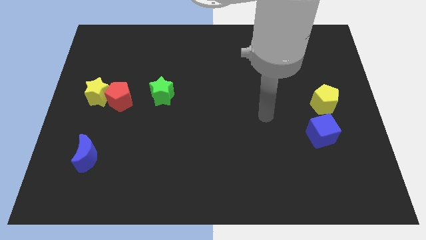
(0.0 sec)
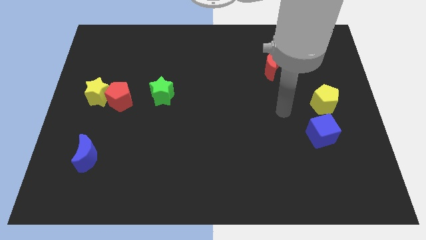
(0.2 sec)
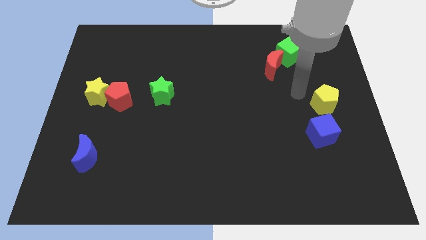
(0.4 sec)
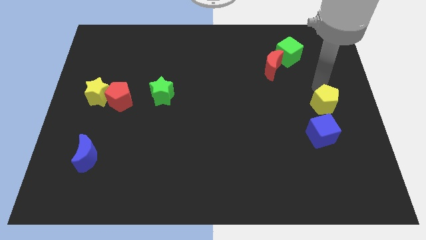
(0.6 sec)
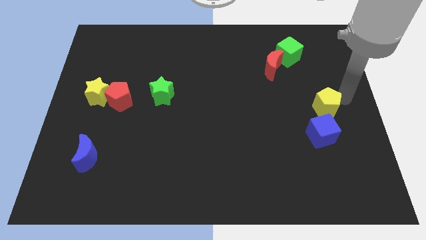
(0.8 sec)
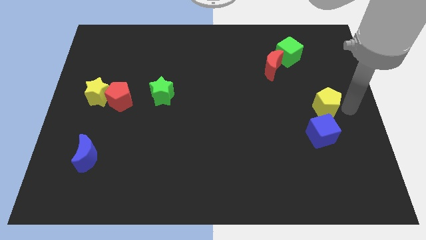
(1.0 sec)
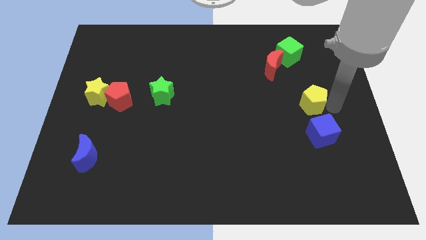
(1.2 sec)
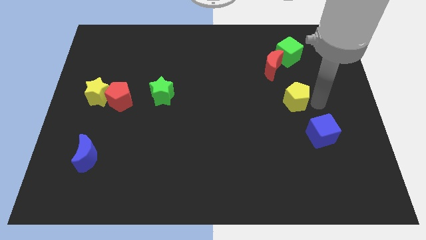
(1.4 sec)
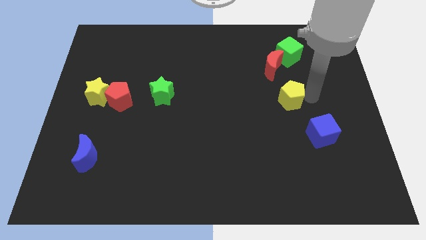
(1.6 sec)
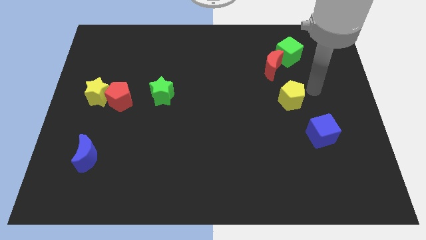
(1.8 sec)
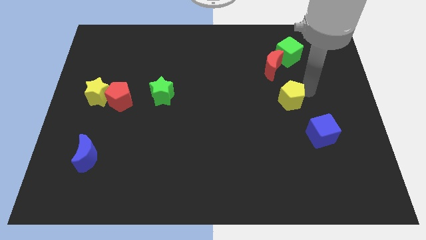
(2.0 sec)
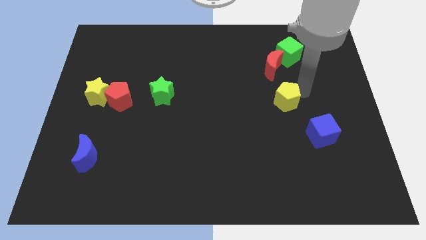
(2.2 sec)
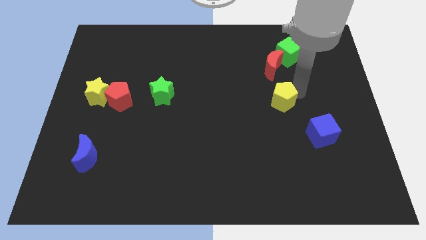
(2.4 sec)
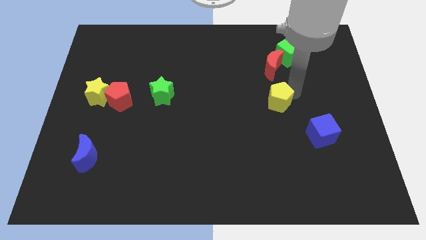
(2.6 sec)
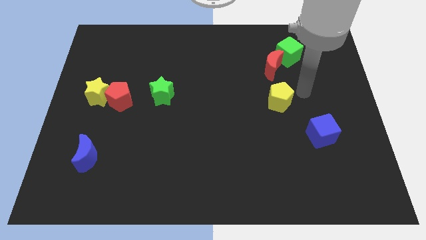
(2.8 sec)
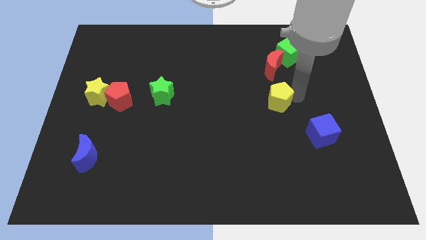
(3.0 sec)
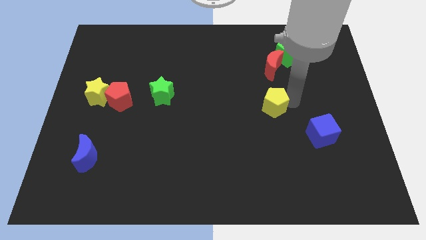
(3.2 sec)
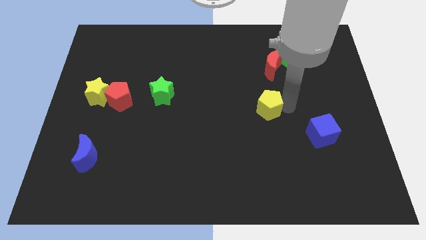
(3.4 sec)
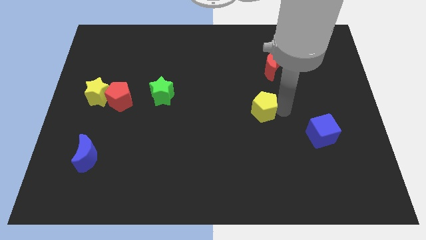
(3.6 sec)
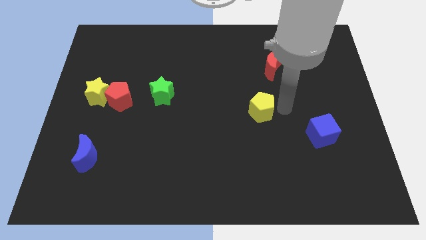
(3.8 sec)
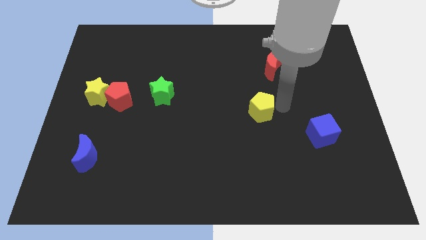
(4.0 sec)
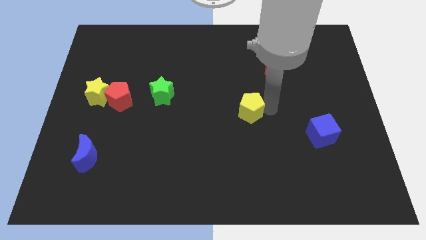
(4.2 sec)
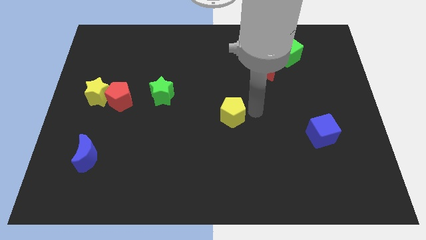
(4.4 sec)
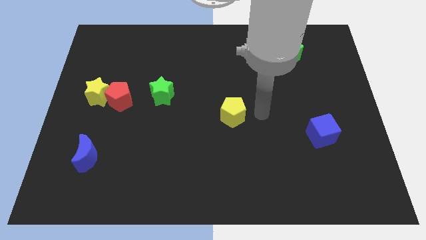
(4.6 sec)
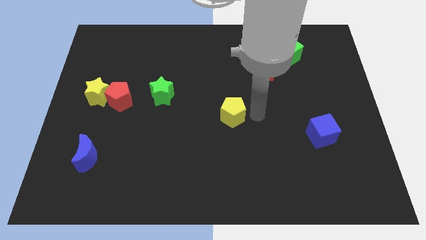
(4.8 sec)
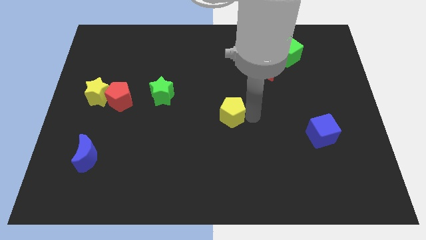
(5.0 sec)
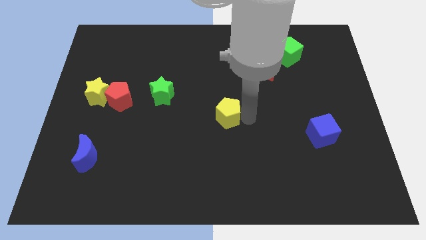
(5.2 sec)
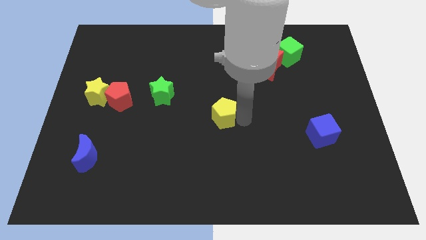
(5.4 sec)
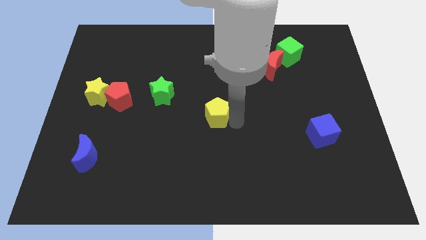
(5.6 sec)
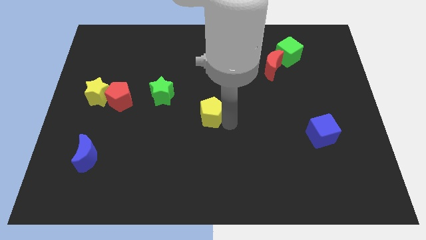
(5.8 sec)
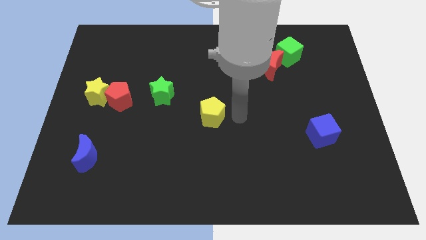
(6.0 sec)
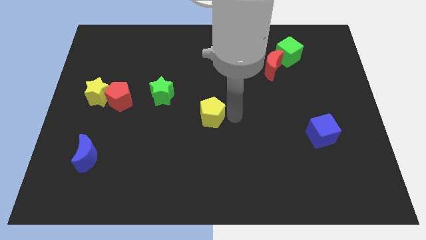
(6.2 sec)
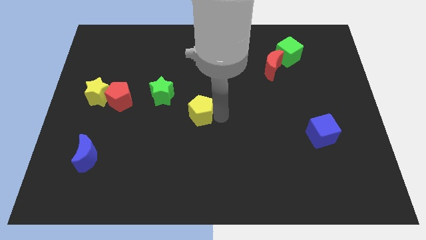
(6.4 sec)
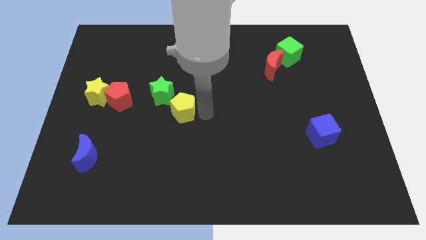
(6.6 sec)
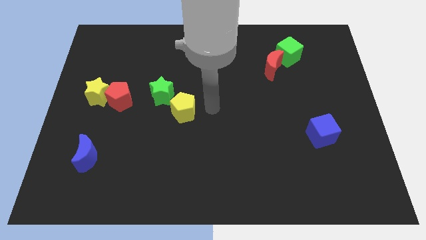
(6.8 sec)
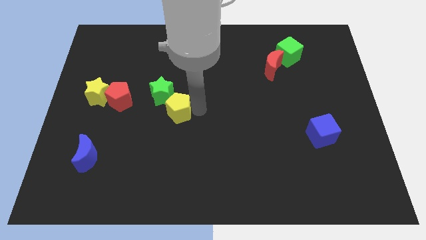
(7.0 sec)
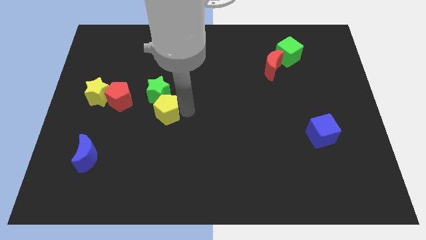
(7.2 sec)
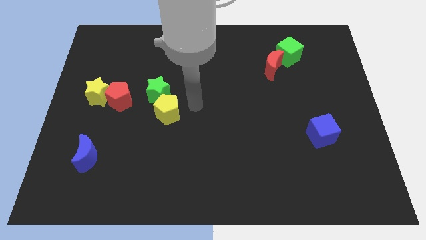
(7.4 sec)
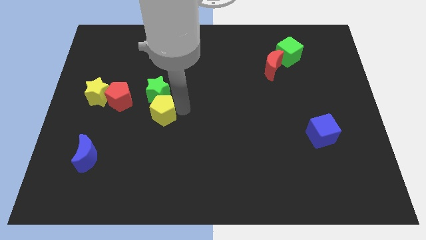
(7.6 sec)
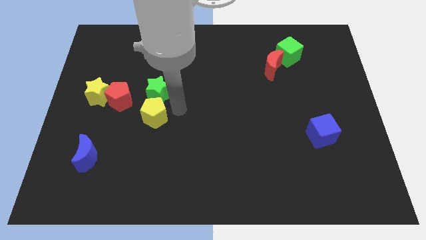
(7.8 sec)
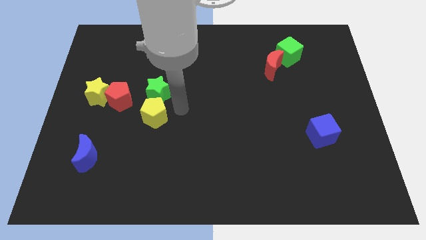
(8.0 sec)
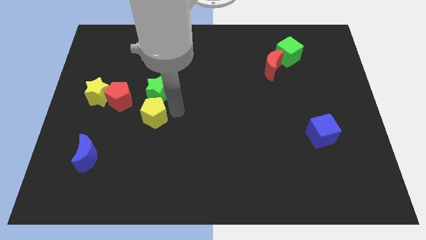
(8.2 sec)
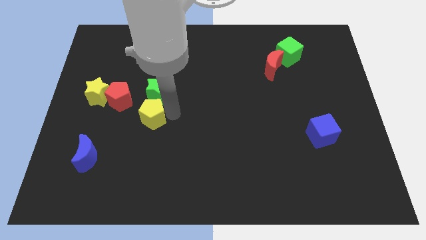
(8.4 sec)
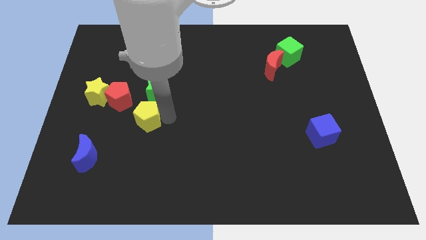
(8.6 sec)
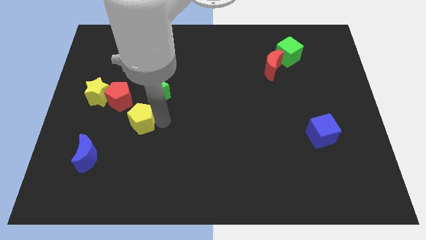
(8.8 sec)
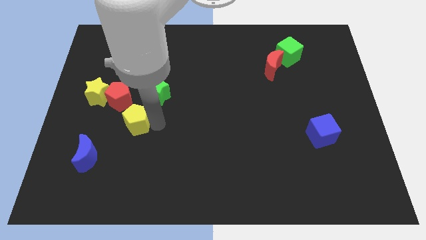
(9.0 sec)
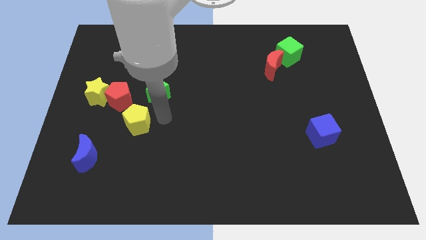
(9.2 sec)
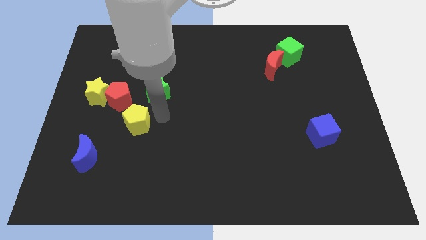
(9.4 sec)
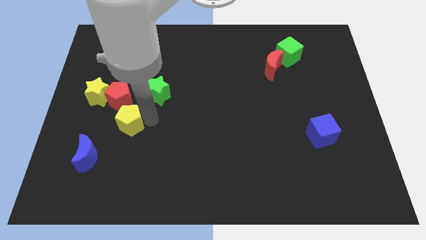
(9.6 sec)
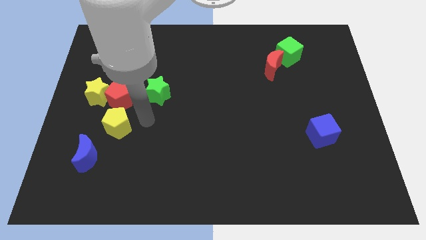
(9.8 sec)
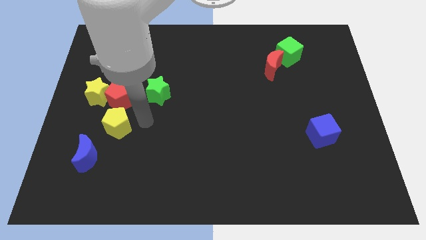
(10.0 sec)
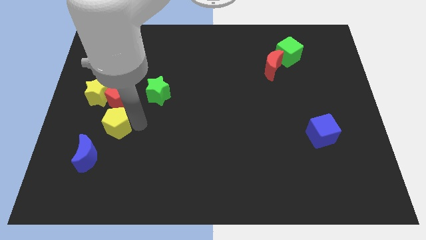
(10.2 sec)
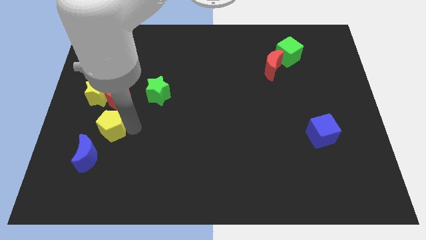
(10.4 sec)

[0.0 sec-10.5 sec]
slide the yellow pentagon to the bottom of the yellow star

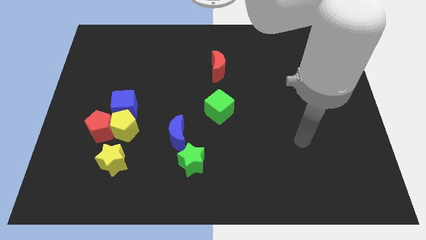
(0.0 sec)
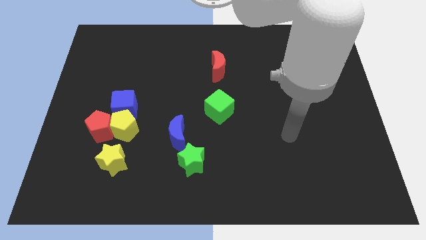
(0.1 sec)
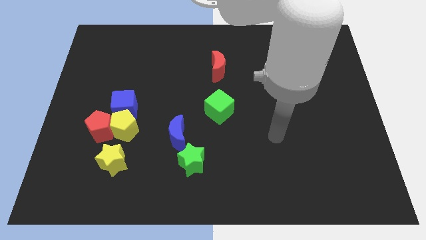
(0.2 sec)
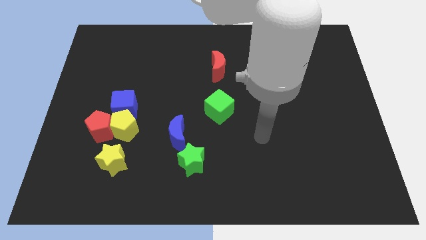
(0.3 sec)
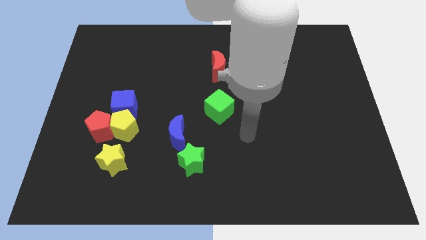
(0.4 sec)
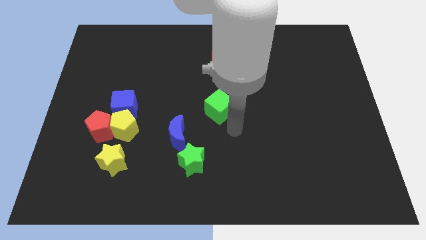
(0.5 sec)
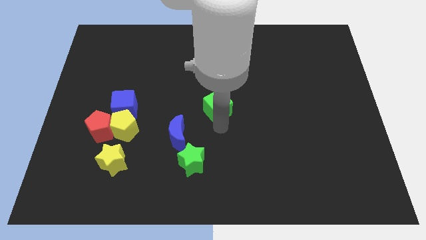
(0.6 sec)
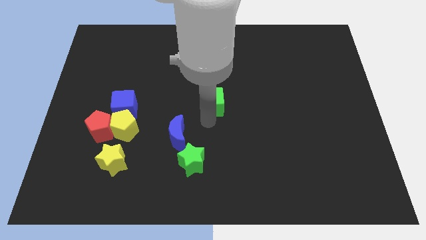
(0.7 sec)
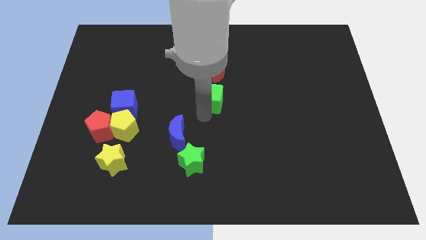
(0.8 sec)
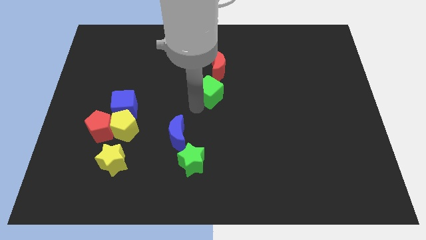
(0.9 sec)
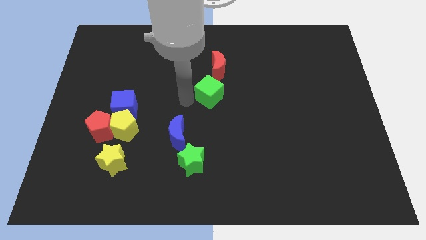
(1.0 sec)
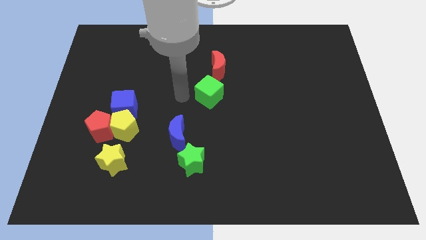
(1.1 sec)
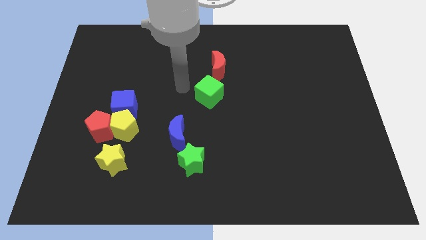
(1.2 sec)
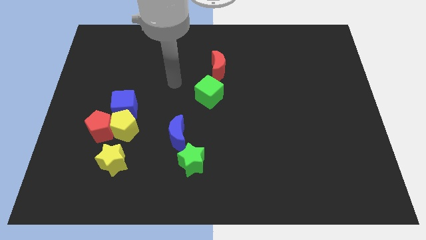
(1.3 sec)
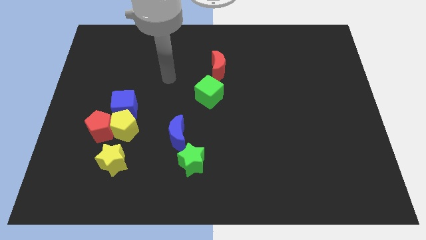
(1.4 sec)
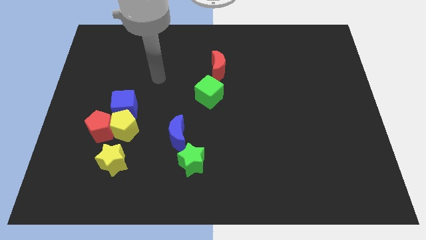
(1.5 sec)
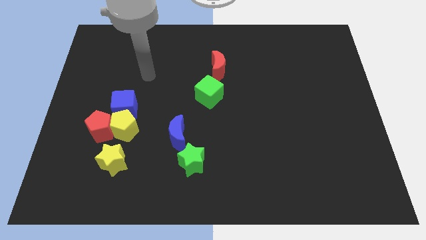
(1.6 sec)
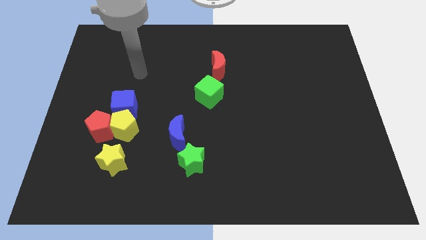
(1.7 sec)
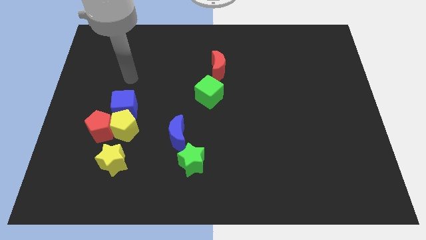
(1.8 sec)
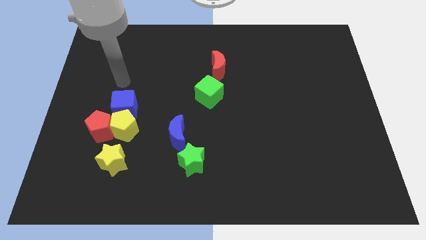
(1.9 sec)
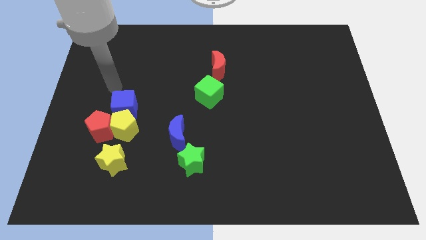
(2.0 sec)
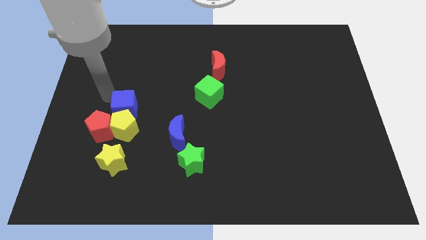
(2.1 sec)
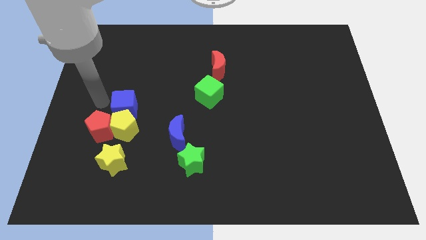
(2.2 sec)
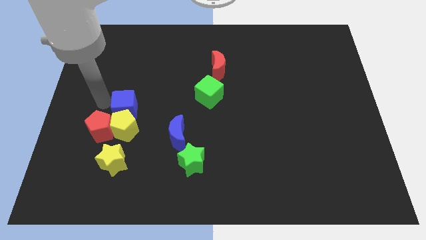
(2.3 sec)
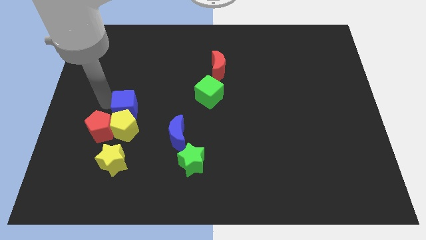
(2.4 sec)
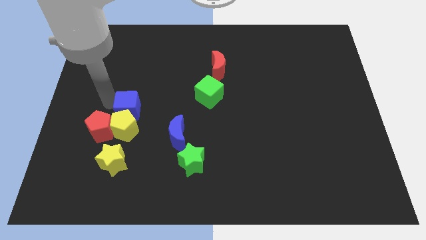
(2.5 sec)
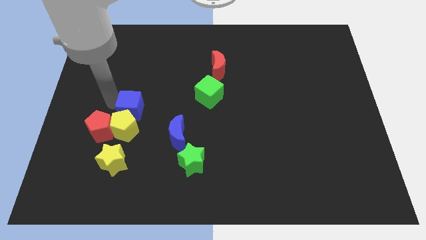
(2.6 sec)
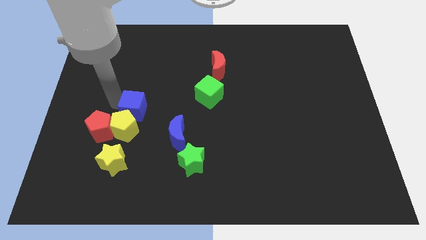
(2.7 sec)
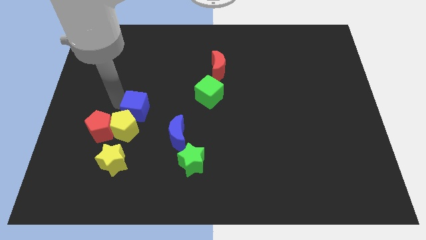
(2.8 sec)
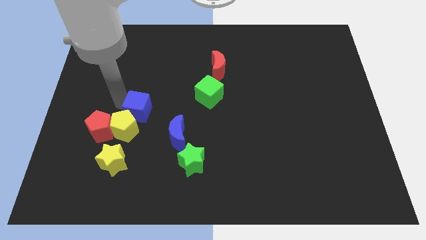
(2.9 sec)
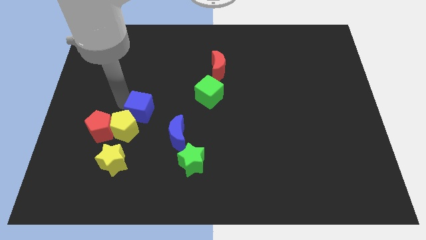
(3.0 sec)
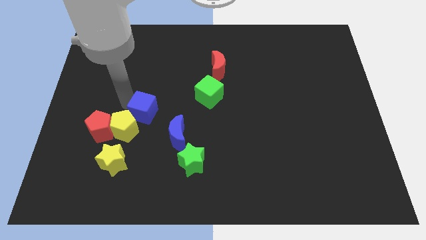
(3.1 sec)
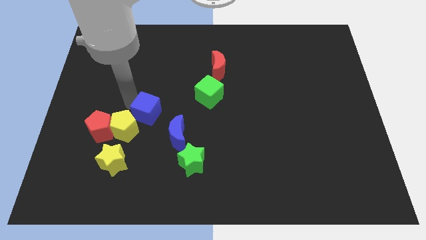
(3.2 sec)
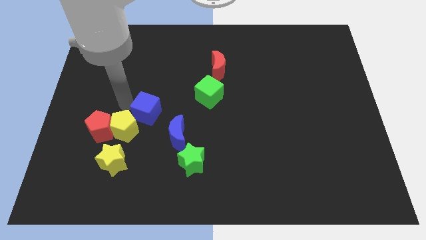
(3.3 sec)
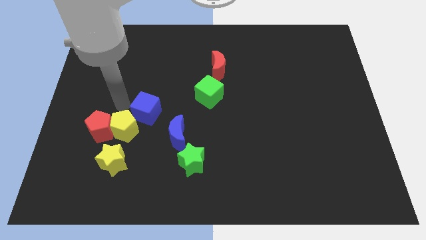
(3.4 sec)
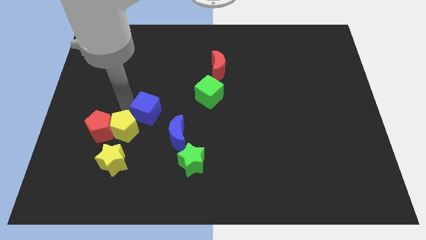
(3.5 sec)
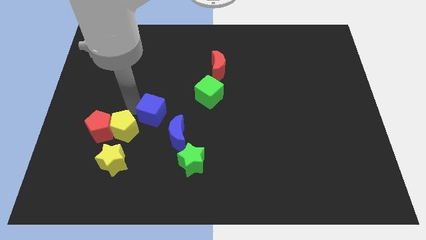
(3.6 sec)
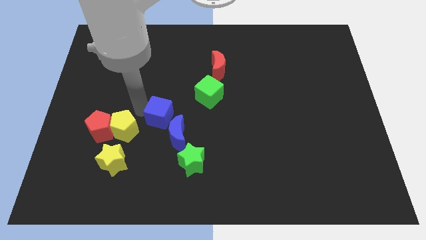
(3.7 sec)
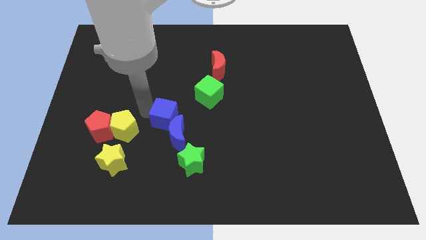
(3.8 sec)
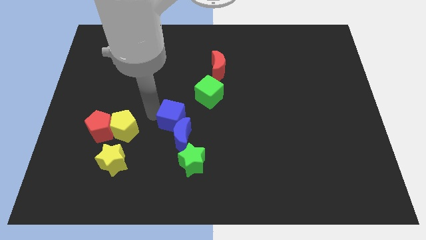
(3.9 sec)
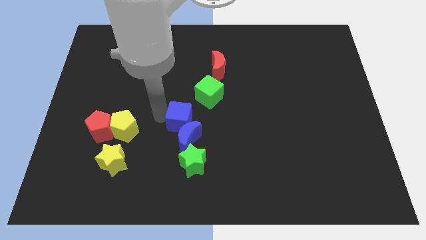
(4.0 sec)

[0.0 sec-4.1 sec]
put the blue cube to the top side of the green star
